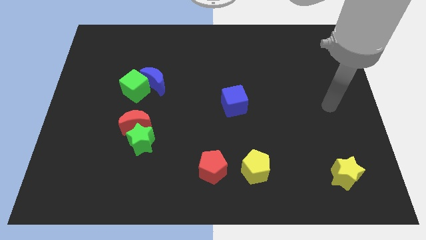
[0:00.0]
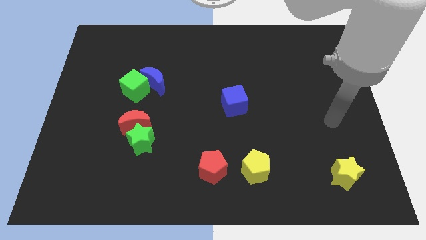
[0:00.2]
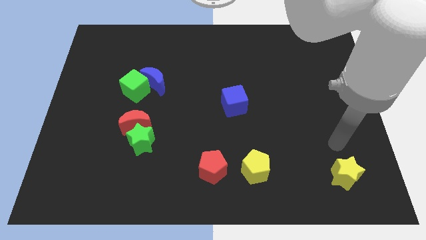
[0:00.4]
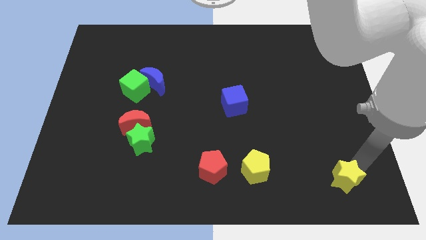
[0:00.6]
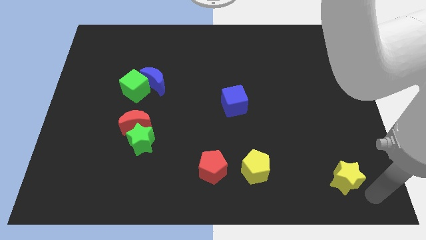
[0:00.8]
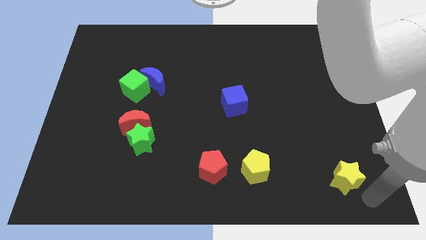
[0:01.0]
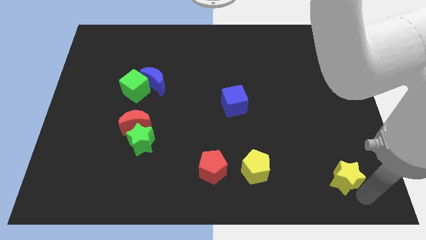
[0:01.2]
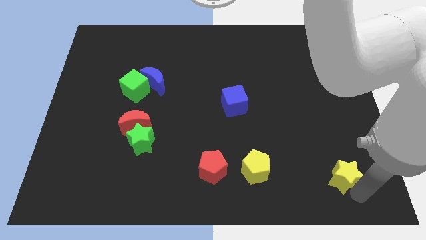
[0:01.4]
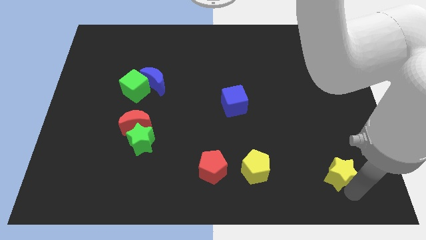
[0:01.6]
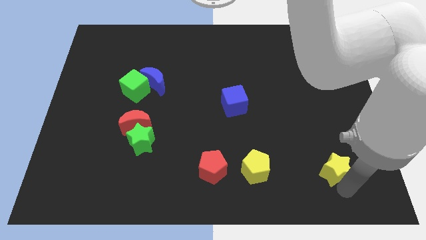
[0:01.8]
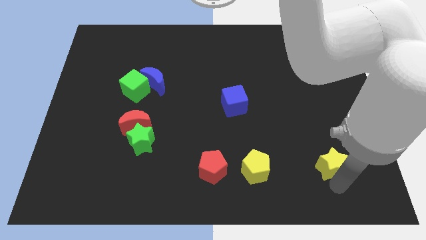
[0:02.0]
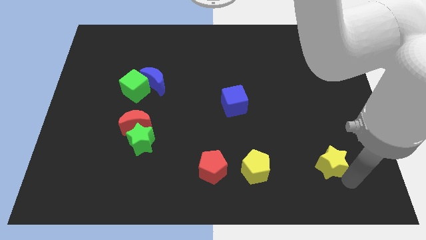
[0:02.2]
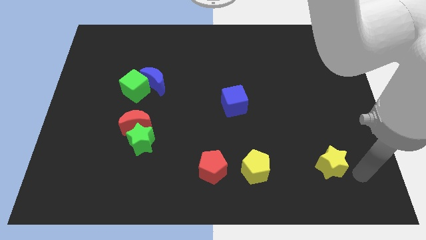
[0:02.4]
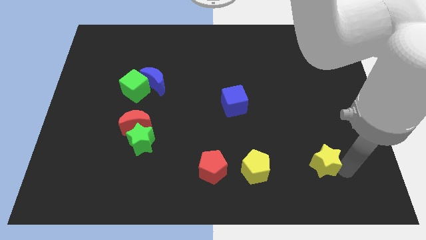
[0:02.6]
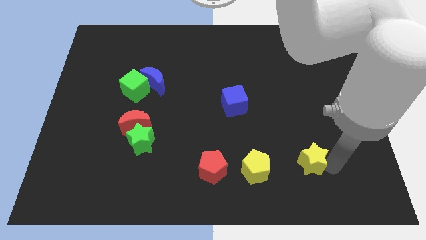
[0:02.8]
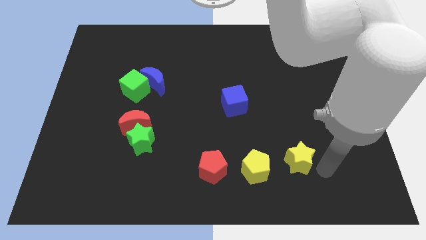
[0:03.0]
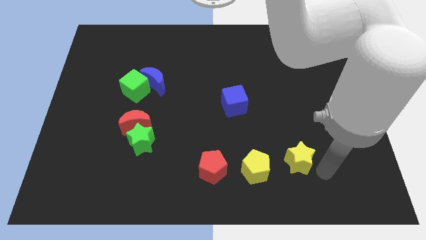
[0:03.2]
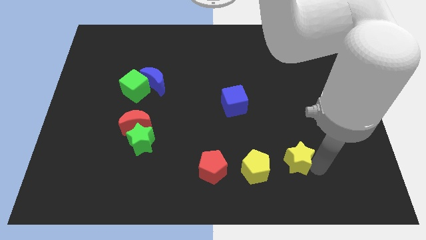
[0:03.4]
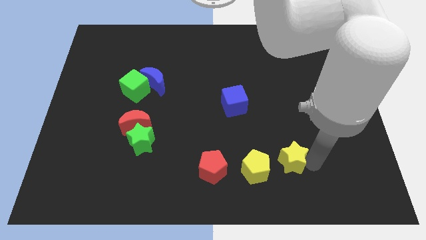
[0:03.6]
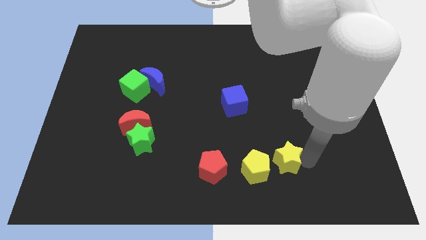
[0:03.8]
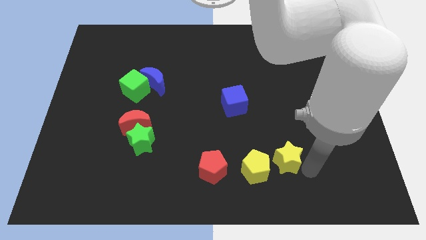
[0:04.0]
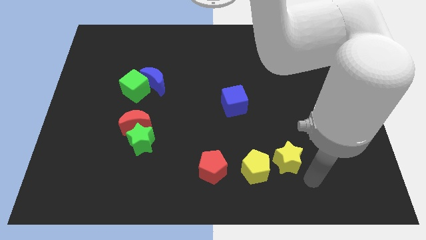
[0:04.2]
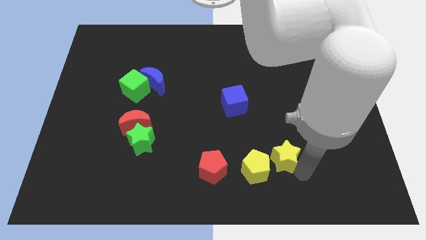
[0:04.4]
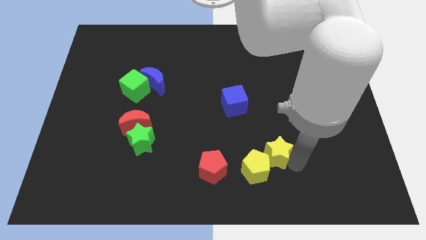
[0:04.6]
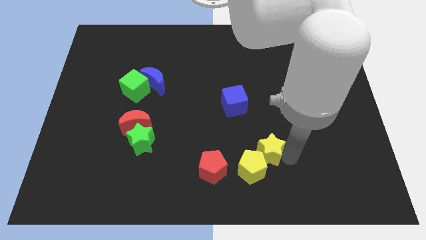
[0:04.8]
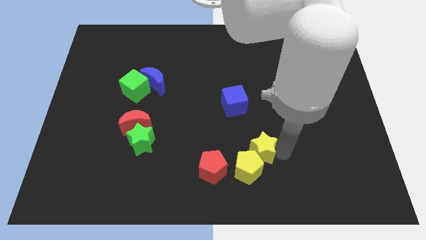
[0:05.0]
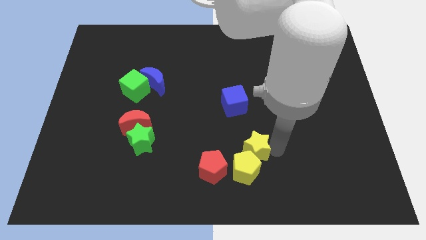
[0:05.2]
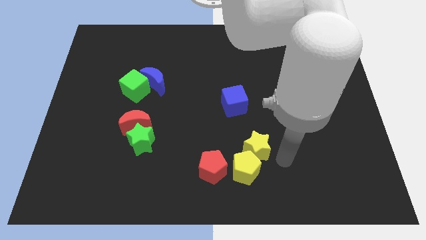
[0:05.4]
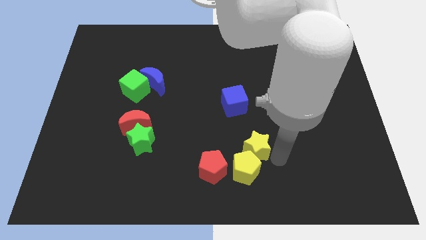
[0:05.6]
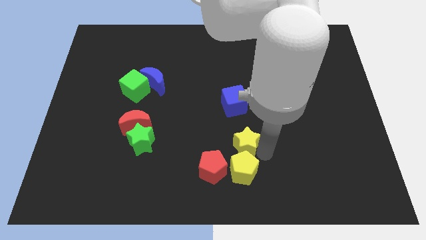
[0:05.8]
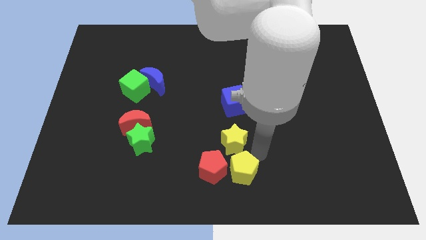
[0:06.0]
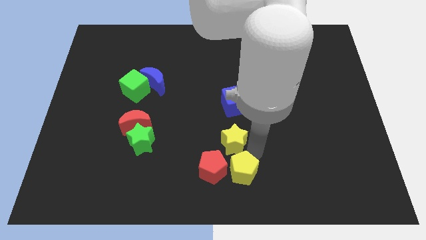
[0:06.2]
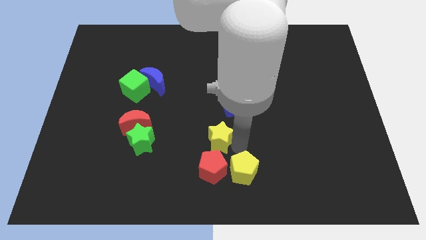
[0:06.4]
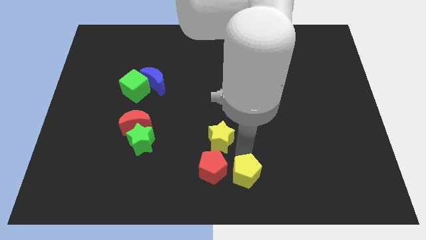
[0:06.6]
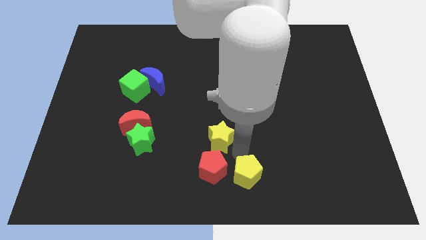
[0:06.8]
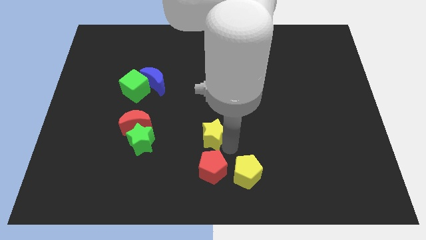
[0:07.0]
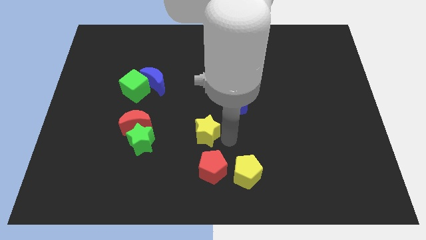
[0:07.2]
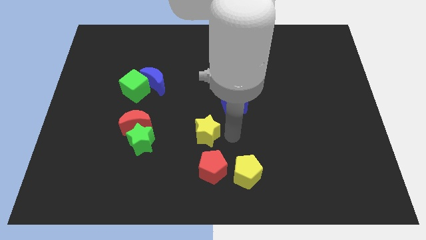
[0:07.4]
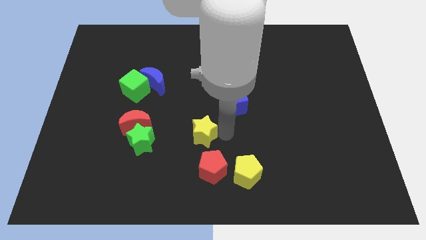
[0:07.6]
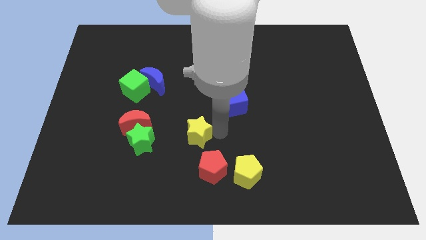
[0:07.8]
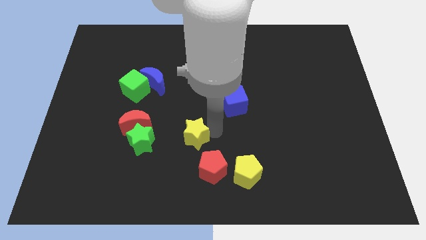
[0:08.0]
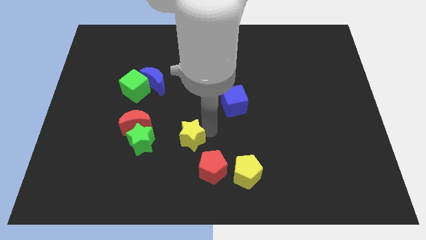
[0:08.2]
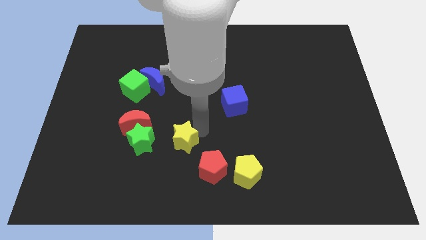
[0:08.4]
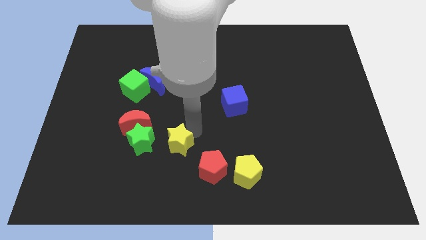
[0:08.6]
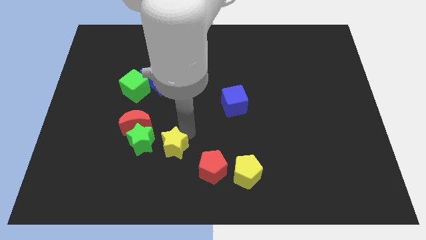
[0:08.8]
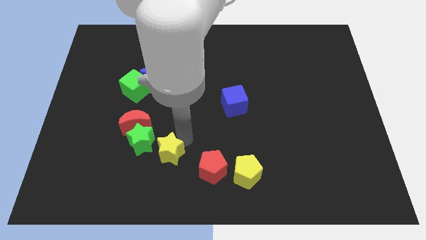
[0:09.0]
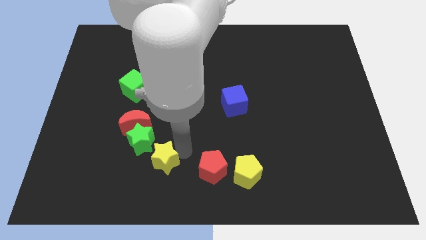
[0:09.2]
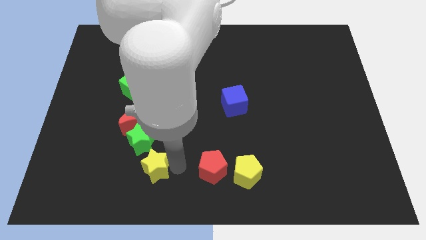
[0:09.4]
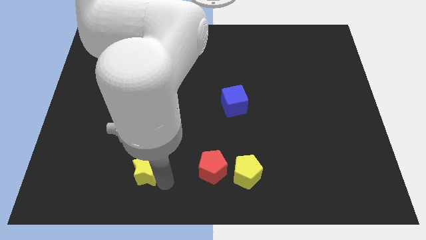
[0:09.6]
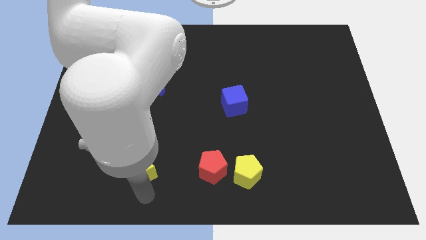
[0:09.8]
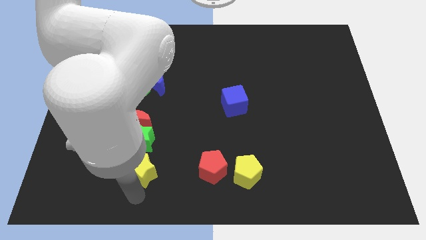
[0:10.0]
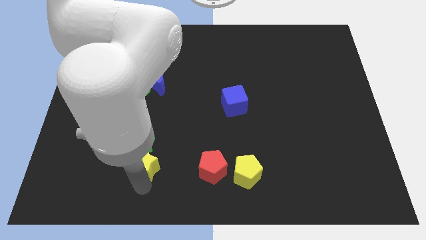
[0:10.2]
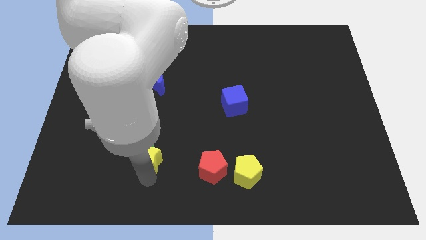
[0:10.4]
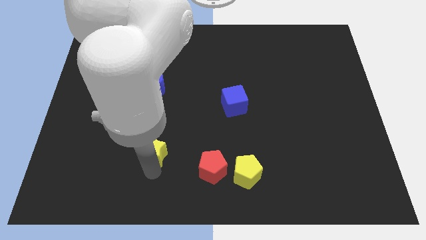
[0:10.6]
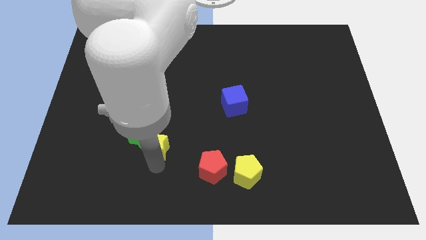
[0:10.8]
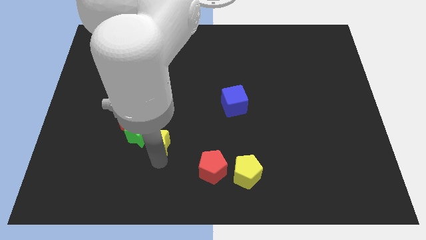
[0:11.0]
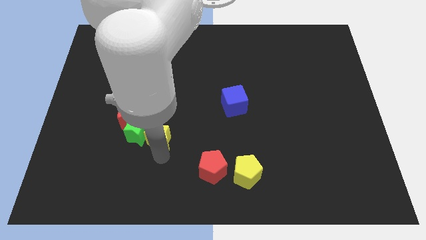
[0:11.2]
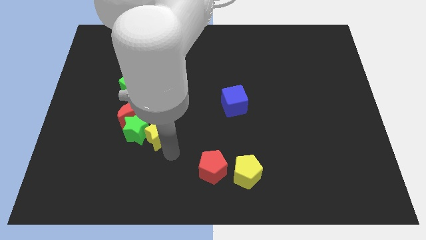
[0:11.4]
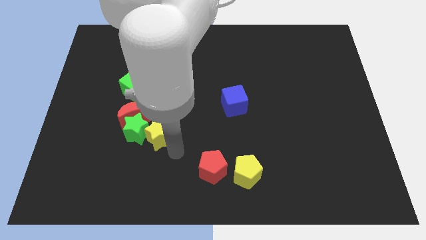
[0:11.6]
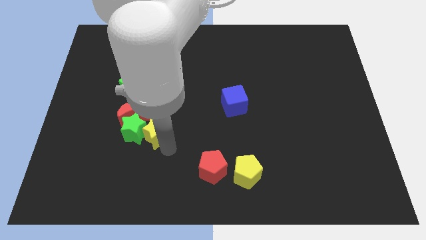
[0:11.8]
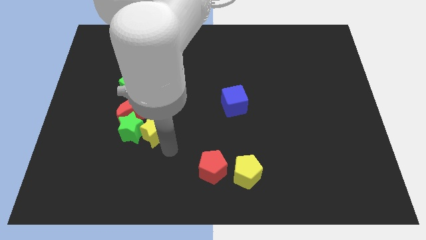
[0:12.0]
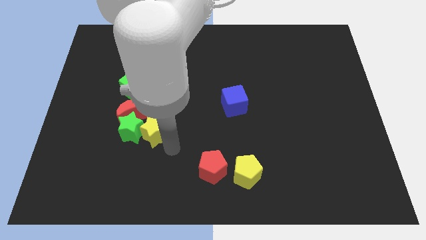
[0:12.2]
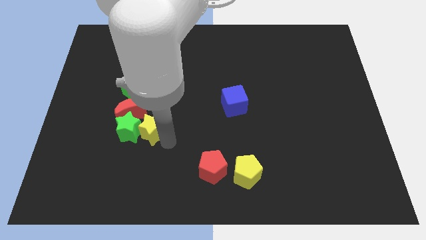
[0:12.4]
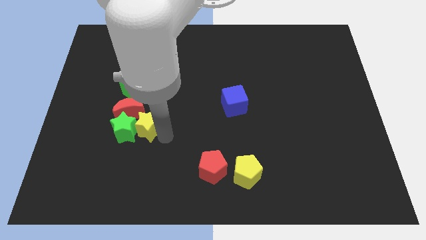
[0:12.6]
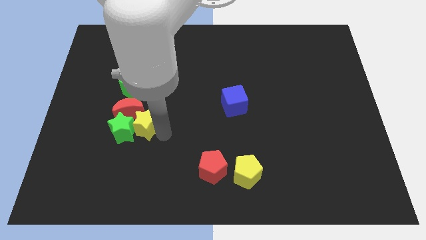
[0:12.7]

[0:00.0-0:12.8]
move the yellow star towards the red moon

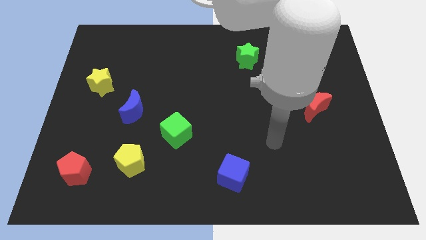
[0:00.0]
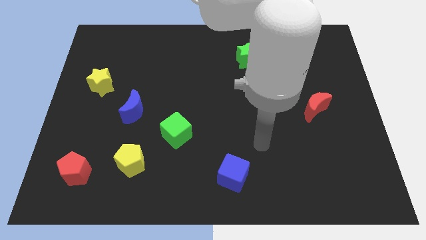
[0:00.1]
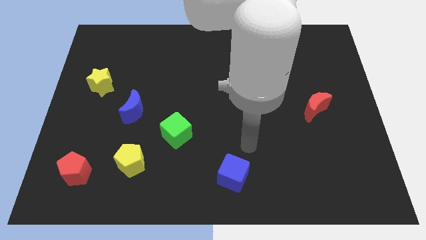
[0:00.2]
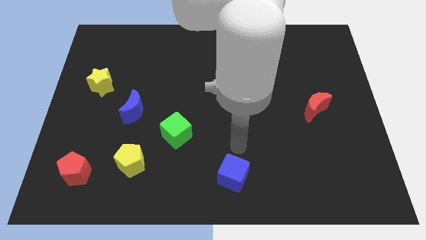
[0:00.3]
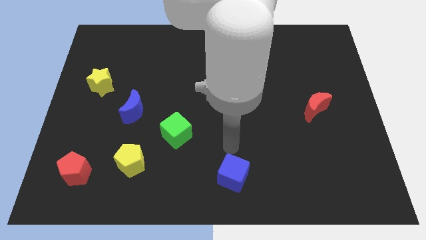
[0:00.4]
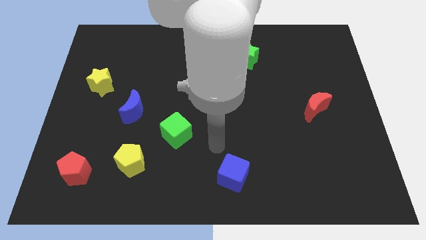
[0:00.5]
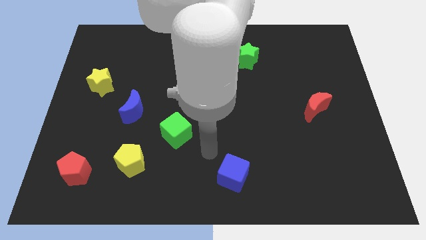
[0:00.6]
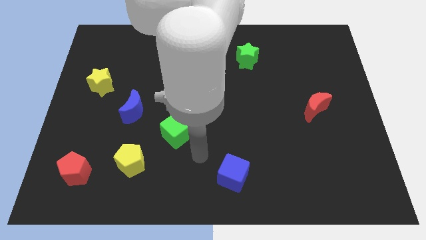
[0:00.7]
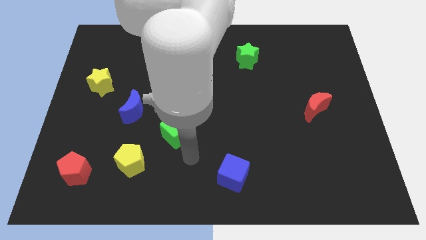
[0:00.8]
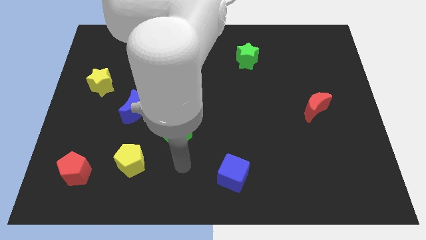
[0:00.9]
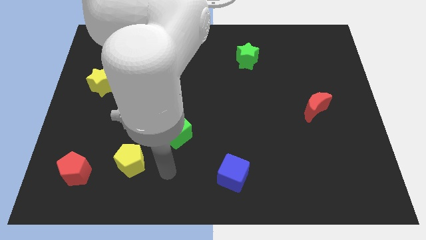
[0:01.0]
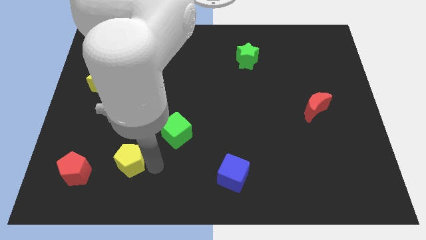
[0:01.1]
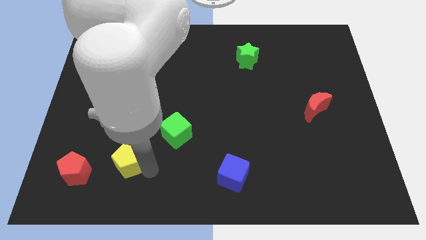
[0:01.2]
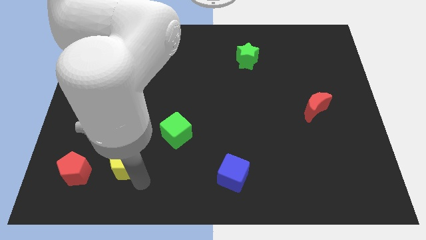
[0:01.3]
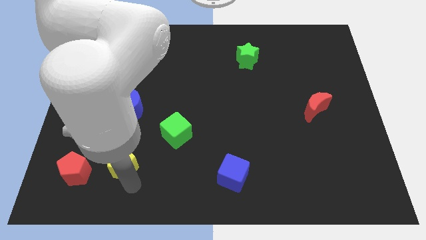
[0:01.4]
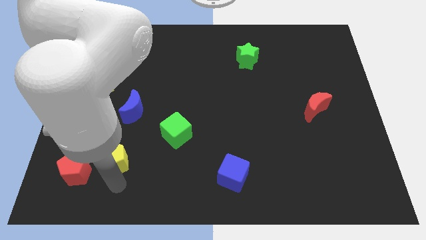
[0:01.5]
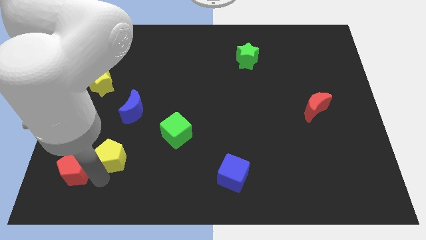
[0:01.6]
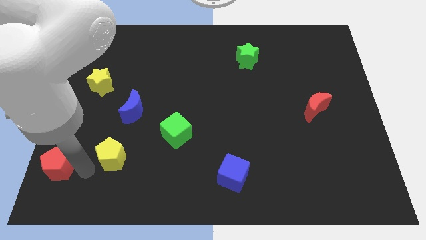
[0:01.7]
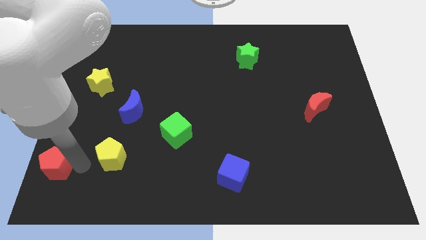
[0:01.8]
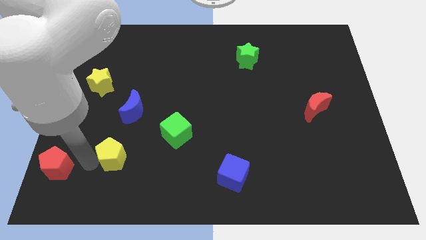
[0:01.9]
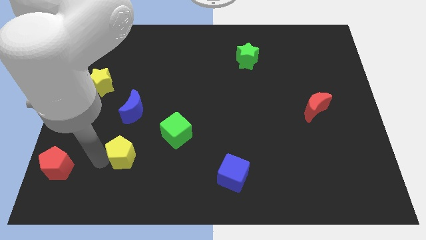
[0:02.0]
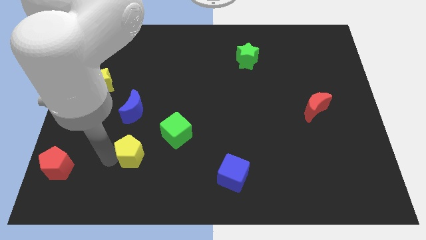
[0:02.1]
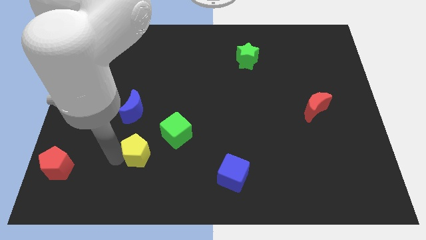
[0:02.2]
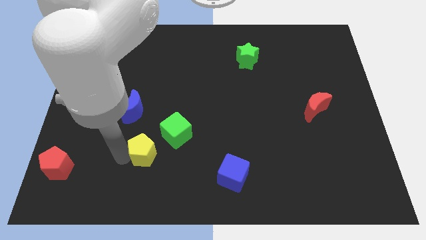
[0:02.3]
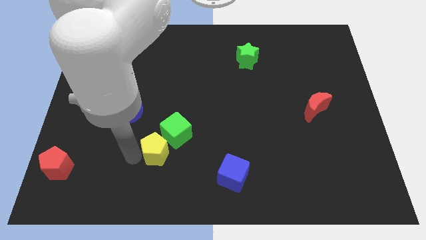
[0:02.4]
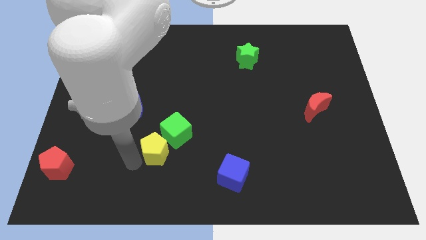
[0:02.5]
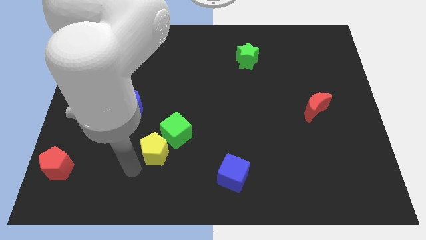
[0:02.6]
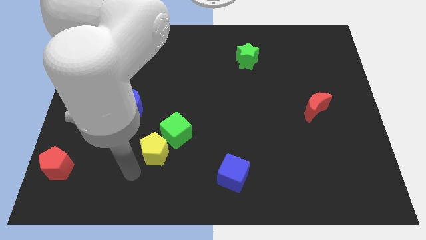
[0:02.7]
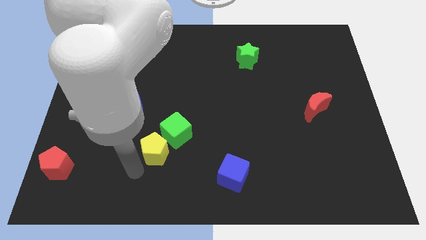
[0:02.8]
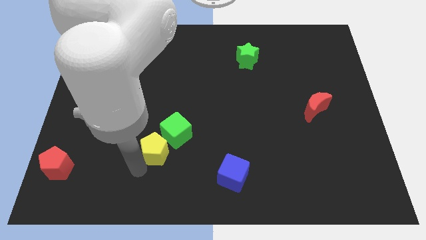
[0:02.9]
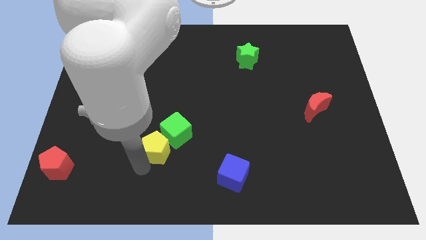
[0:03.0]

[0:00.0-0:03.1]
slide the yellow pentagon towards the green cube
